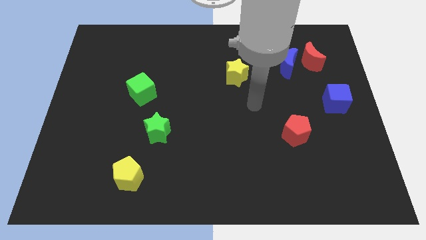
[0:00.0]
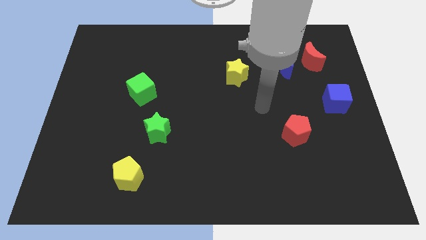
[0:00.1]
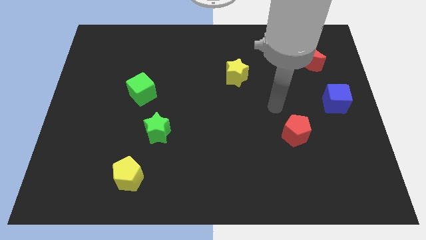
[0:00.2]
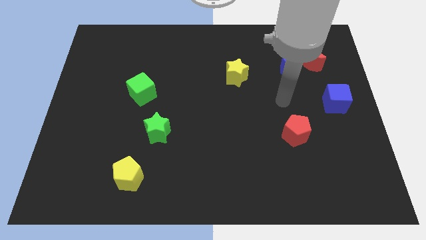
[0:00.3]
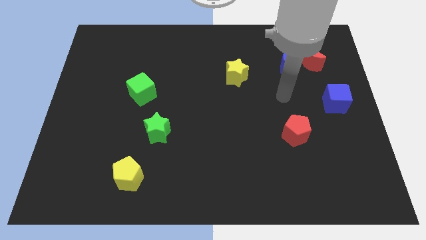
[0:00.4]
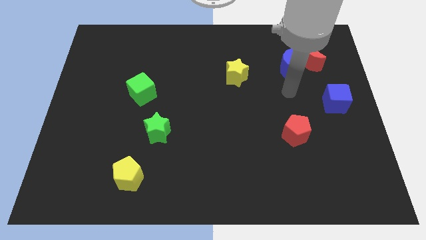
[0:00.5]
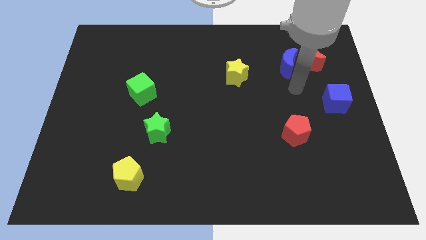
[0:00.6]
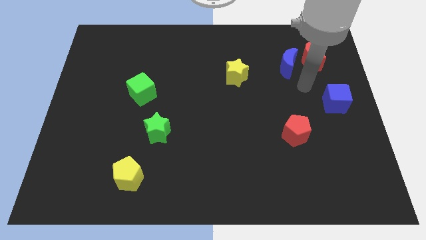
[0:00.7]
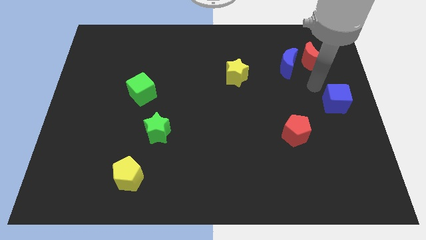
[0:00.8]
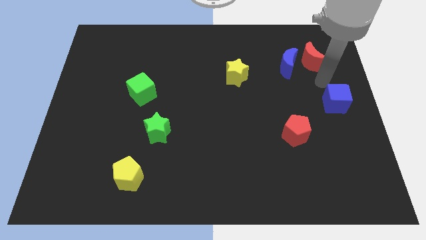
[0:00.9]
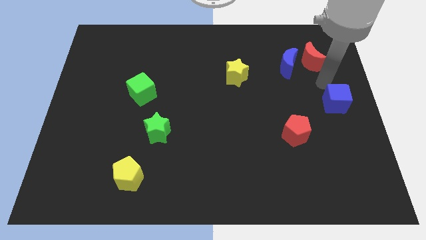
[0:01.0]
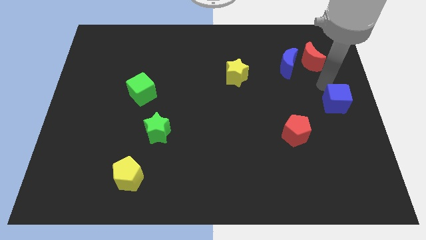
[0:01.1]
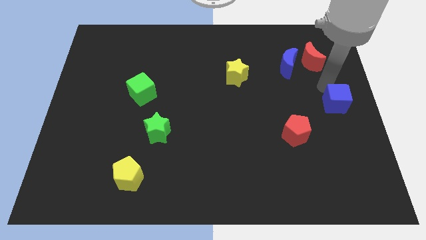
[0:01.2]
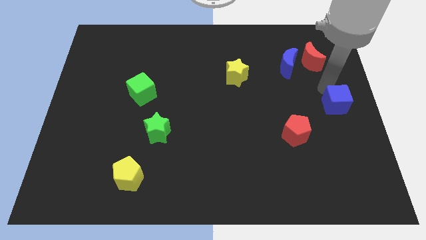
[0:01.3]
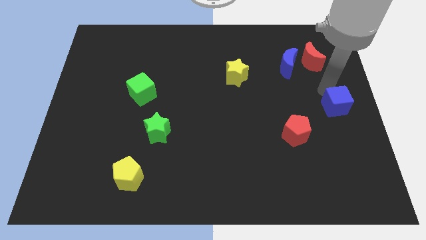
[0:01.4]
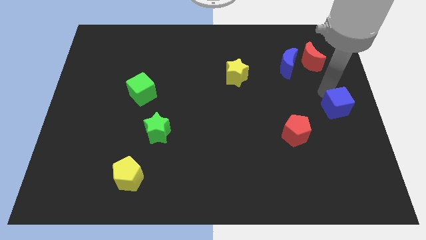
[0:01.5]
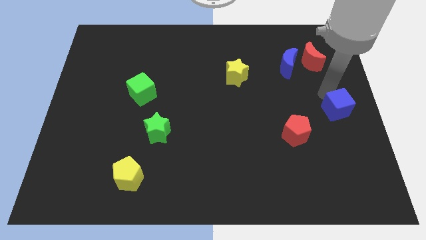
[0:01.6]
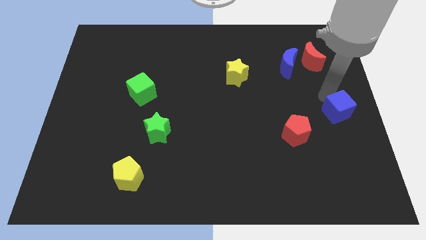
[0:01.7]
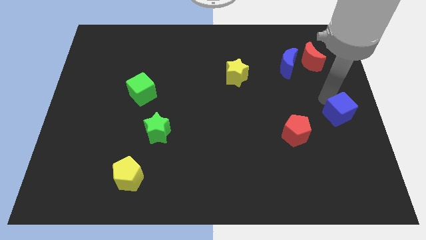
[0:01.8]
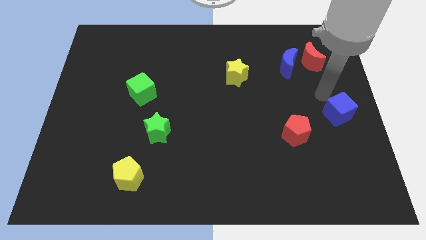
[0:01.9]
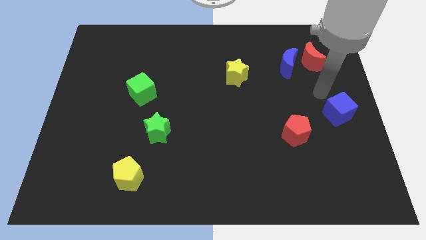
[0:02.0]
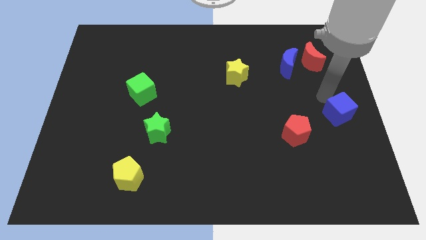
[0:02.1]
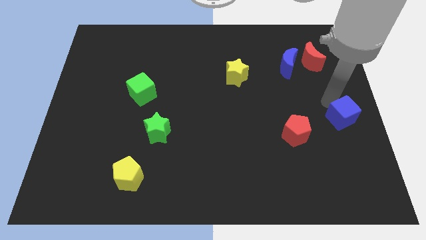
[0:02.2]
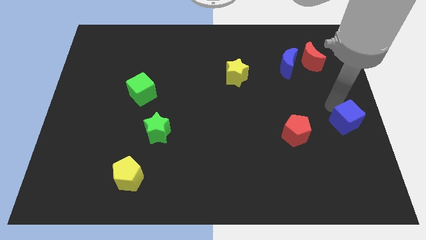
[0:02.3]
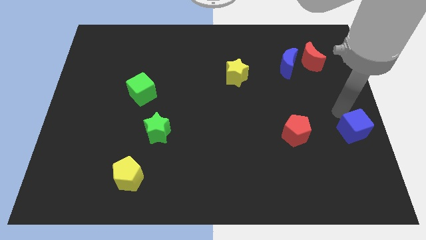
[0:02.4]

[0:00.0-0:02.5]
move the blue cube down slightly

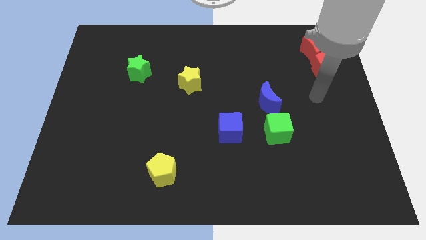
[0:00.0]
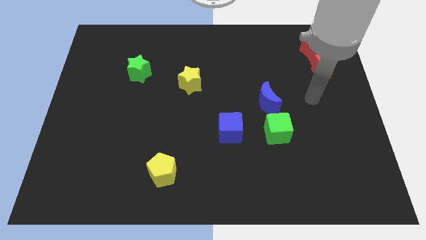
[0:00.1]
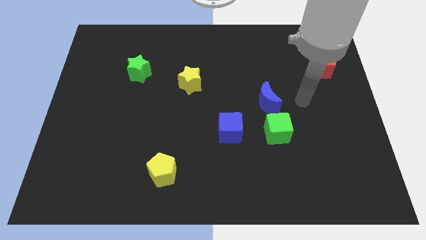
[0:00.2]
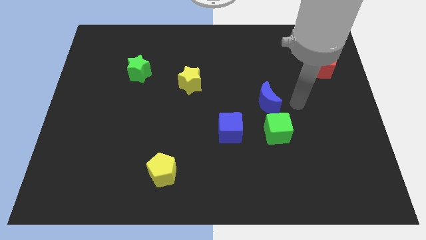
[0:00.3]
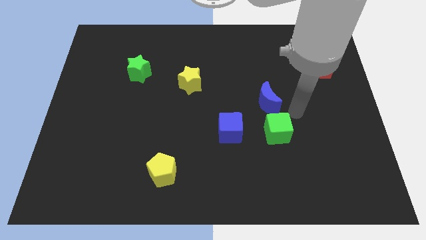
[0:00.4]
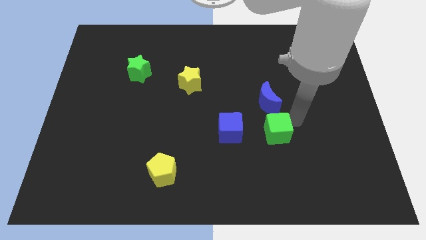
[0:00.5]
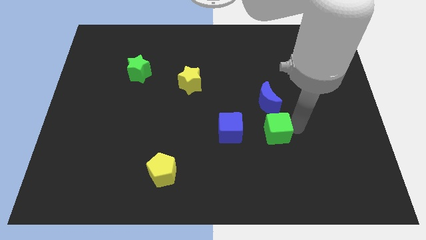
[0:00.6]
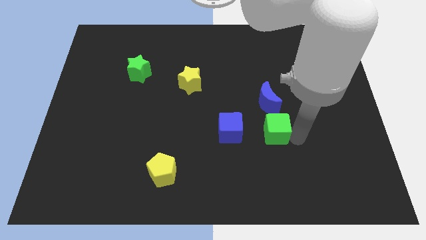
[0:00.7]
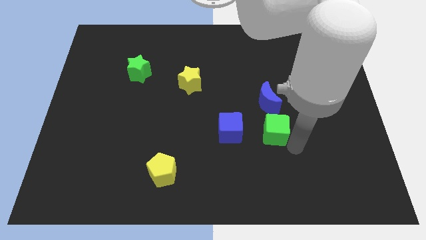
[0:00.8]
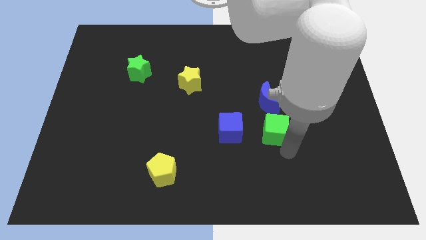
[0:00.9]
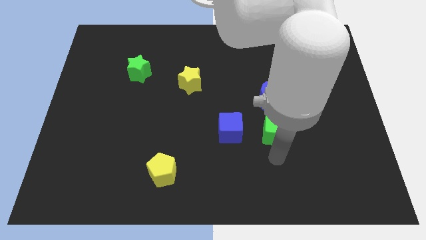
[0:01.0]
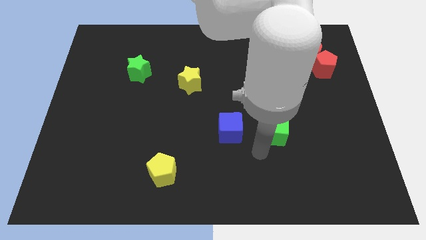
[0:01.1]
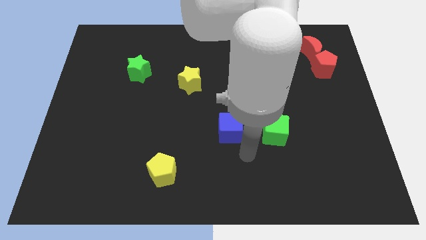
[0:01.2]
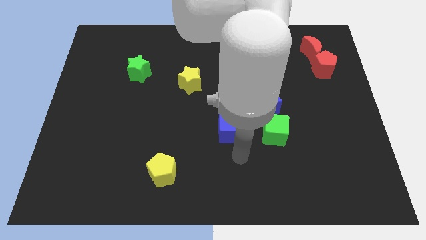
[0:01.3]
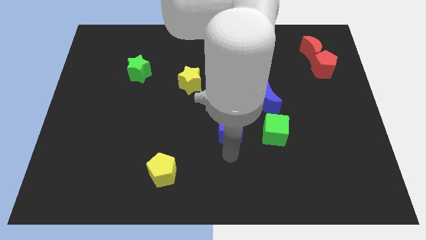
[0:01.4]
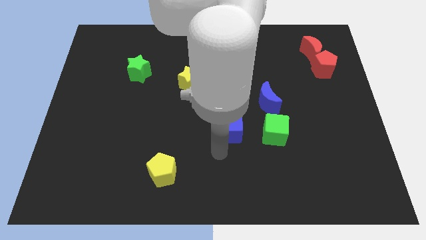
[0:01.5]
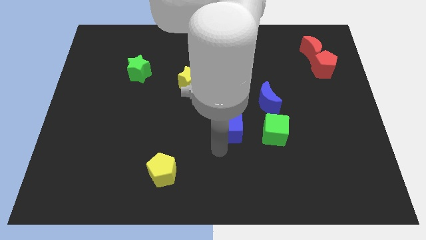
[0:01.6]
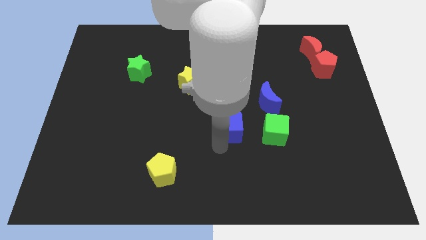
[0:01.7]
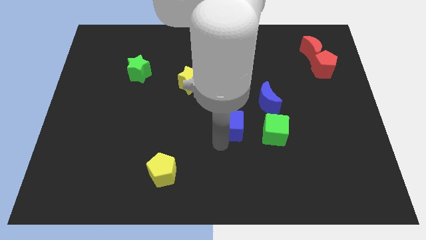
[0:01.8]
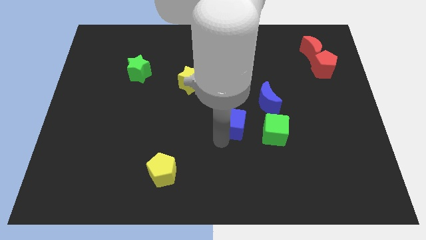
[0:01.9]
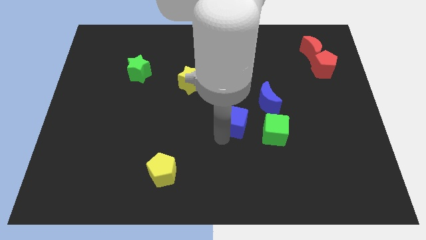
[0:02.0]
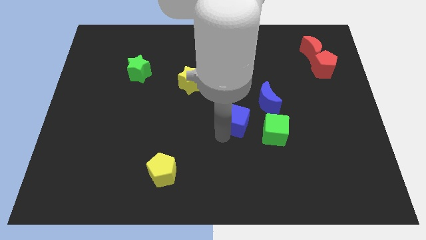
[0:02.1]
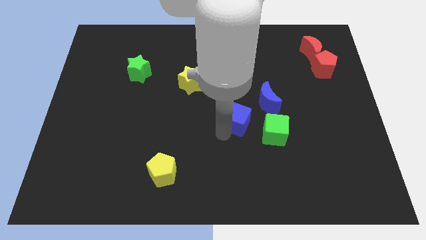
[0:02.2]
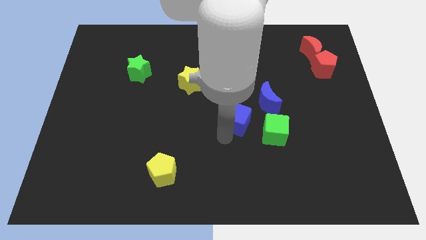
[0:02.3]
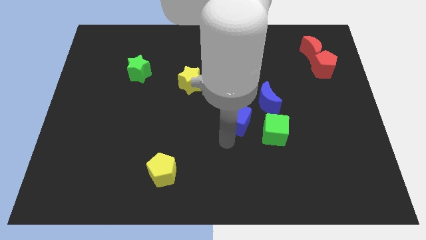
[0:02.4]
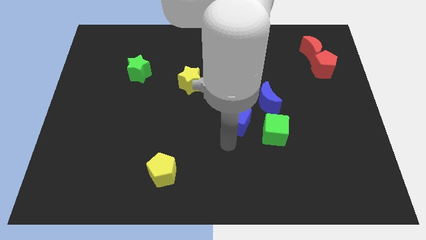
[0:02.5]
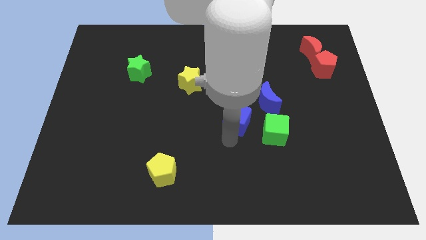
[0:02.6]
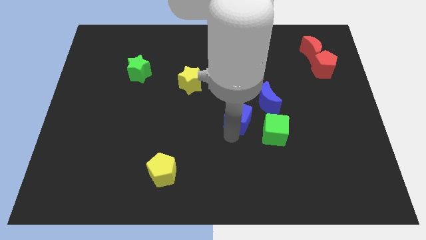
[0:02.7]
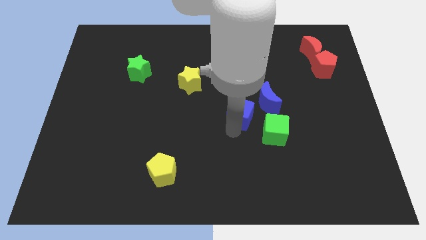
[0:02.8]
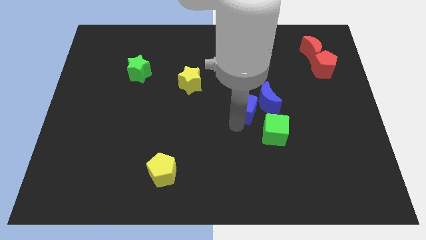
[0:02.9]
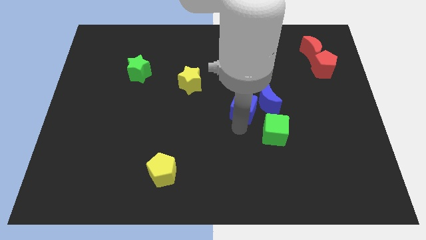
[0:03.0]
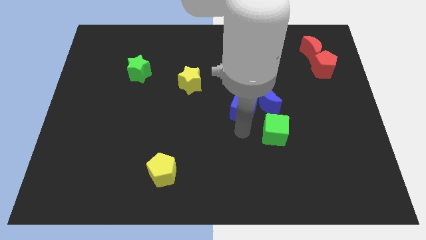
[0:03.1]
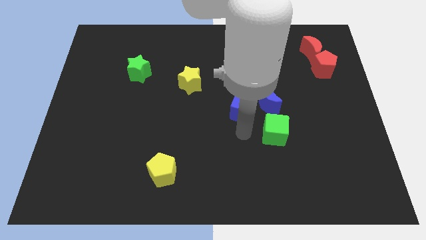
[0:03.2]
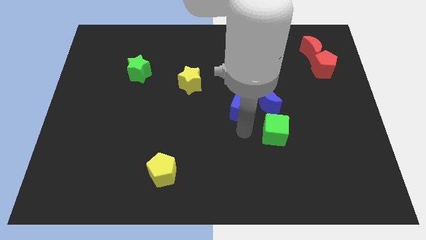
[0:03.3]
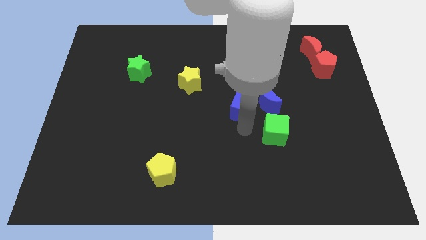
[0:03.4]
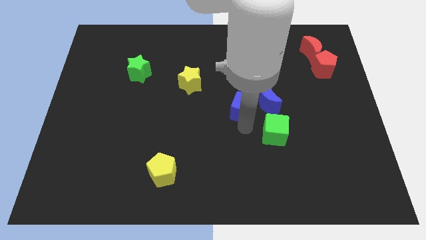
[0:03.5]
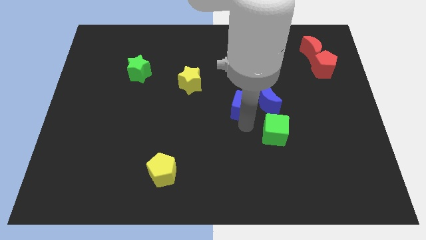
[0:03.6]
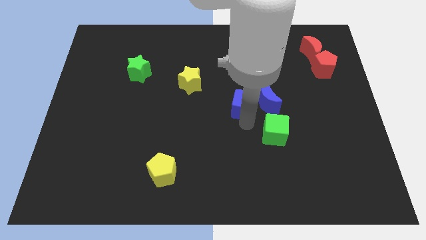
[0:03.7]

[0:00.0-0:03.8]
slightly slide the blue cube upwards and then right

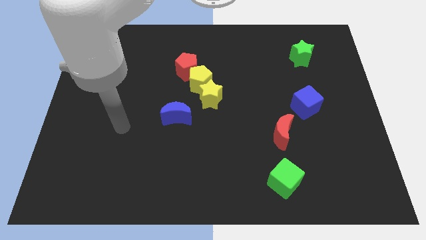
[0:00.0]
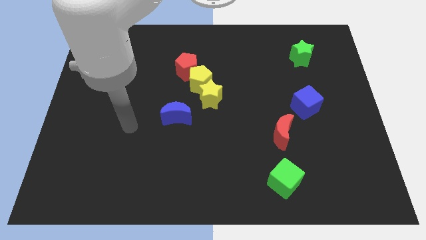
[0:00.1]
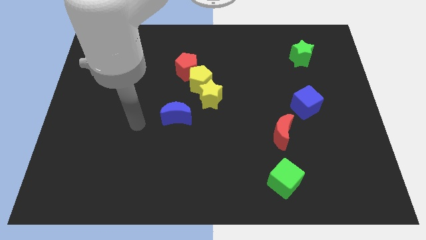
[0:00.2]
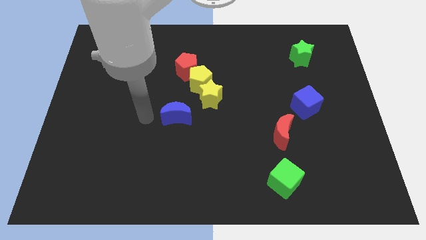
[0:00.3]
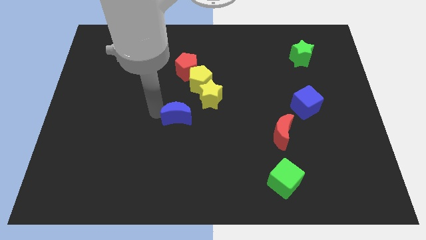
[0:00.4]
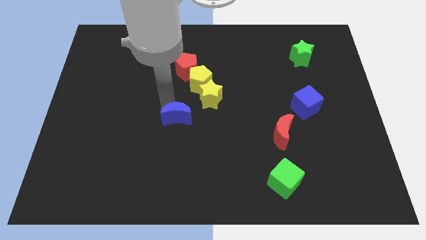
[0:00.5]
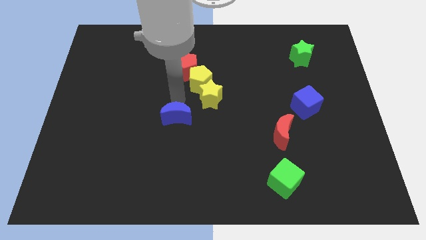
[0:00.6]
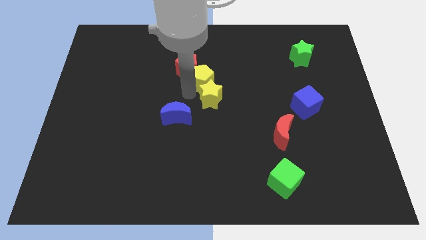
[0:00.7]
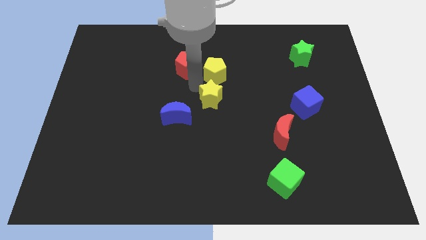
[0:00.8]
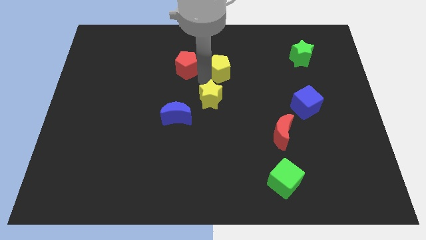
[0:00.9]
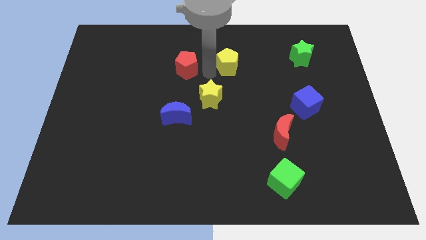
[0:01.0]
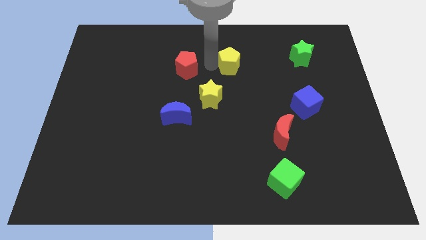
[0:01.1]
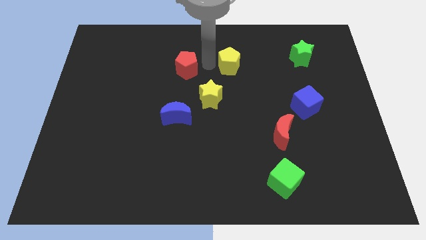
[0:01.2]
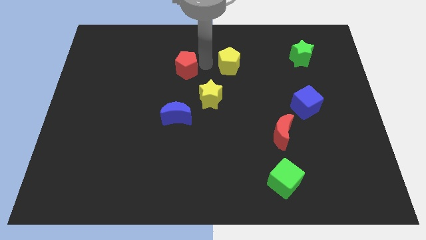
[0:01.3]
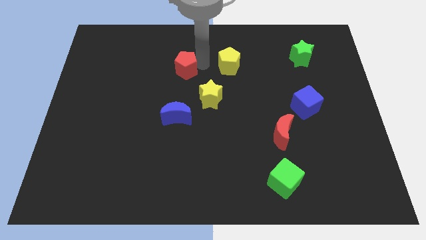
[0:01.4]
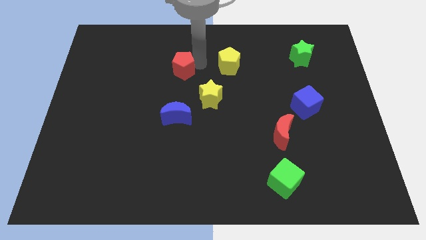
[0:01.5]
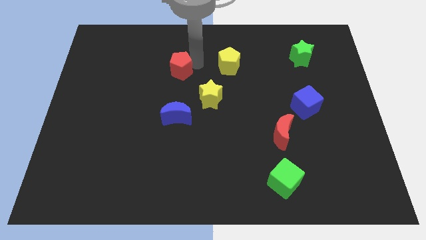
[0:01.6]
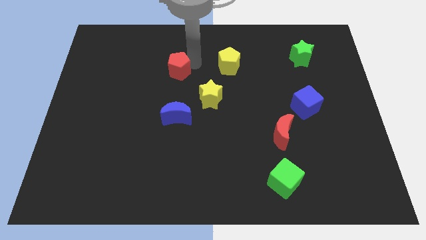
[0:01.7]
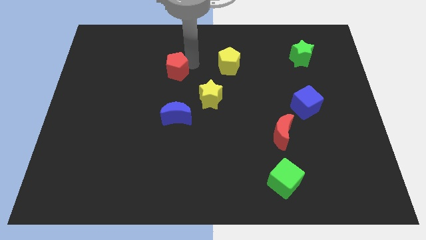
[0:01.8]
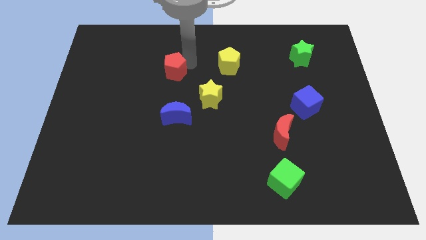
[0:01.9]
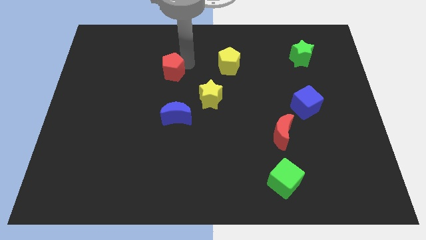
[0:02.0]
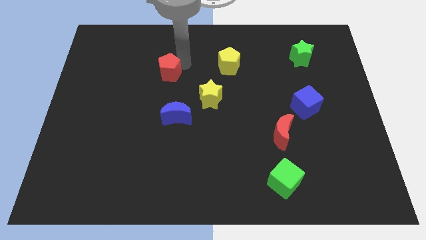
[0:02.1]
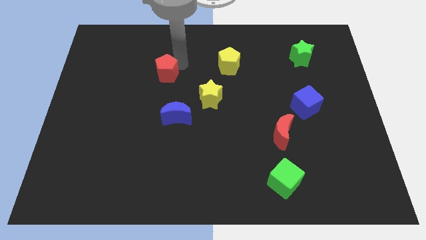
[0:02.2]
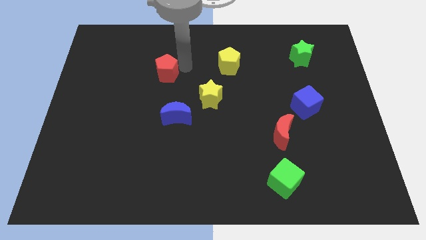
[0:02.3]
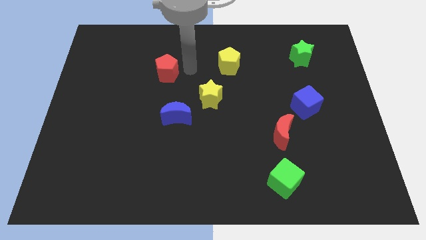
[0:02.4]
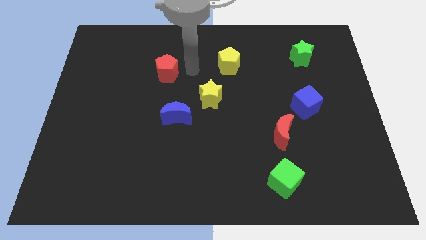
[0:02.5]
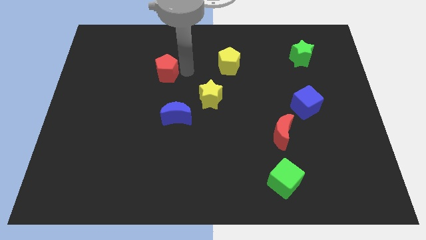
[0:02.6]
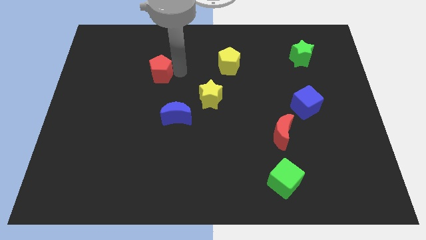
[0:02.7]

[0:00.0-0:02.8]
move the red pentagon slightly left
